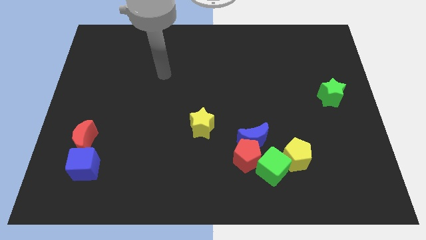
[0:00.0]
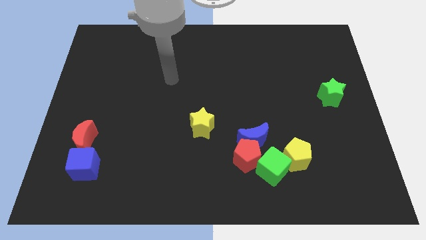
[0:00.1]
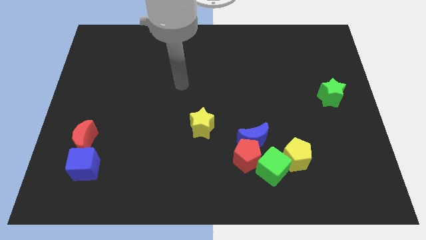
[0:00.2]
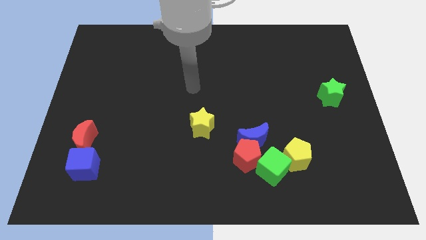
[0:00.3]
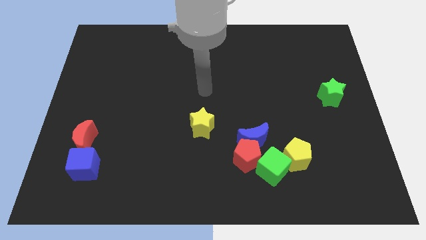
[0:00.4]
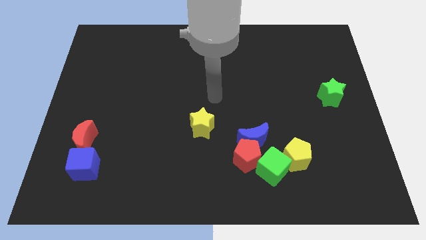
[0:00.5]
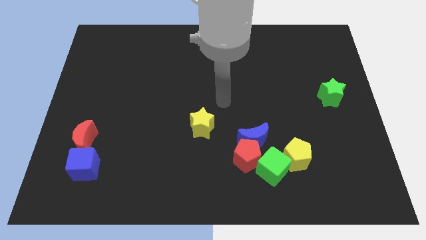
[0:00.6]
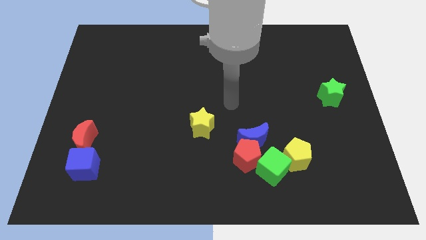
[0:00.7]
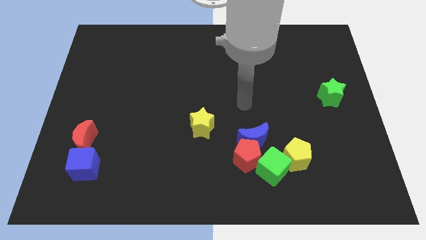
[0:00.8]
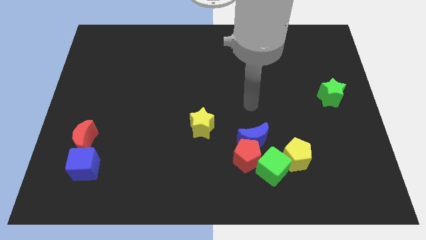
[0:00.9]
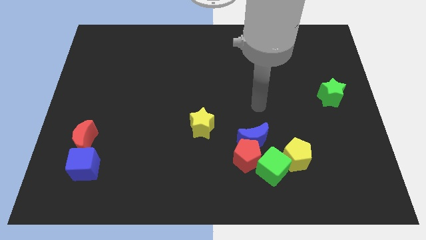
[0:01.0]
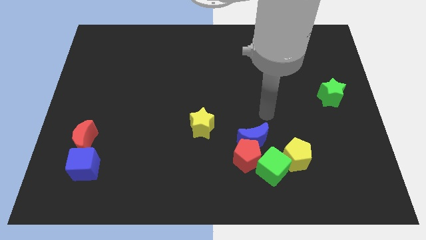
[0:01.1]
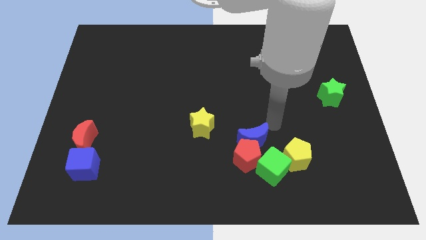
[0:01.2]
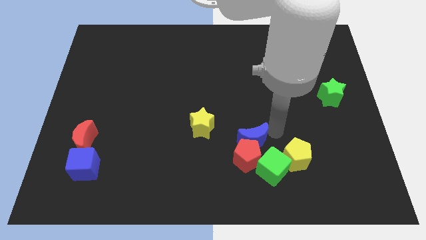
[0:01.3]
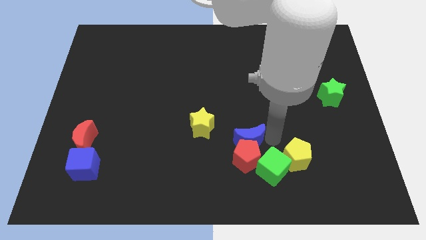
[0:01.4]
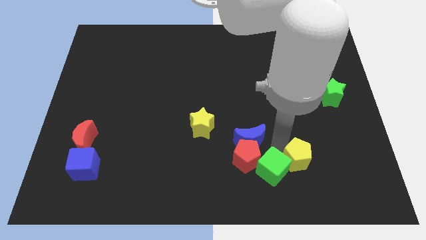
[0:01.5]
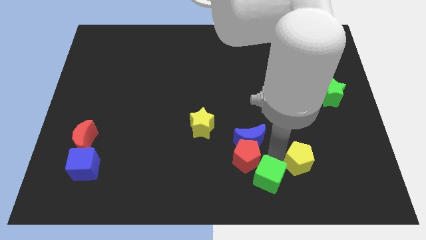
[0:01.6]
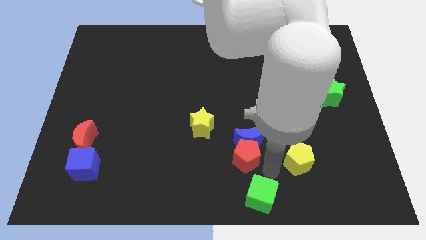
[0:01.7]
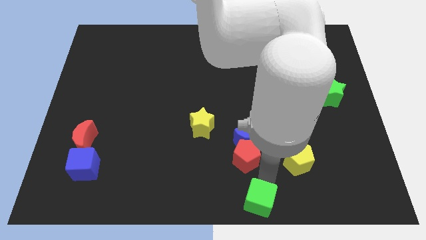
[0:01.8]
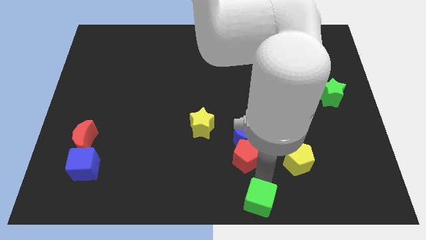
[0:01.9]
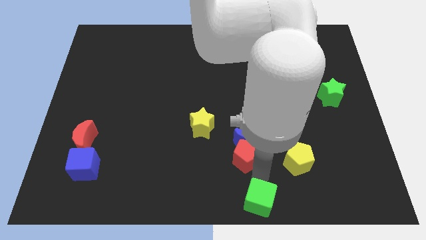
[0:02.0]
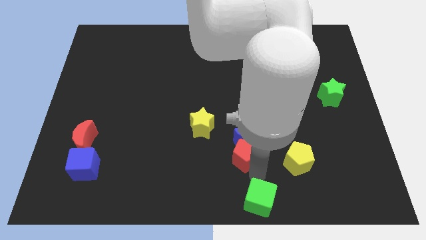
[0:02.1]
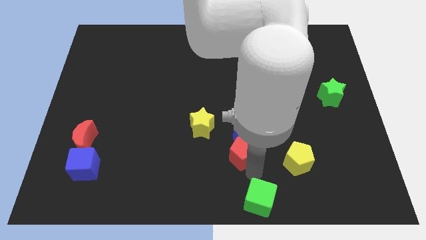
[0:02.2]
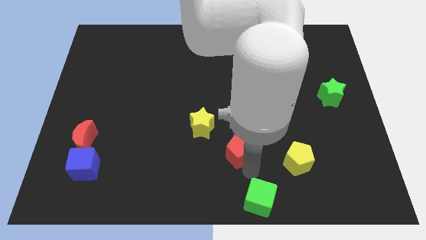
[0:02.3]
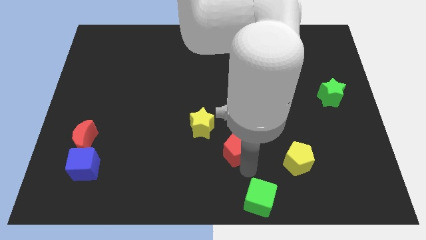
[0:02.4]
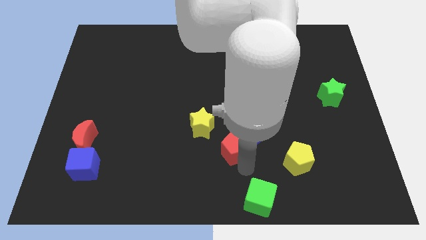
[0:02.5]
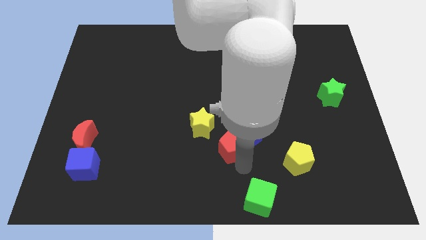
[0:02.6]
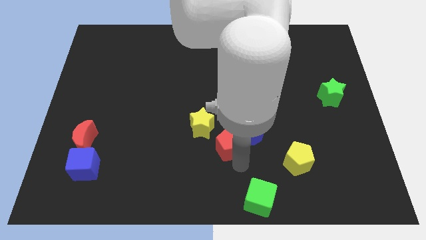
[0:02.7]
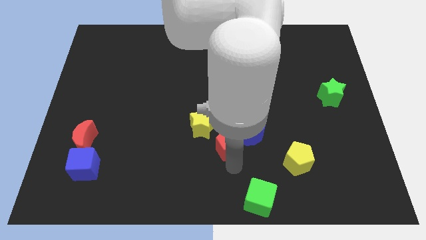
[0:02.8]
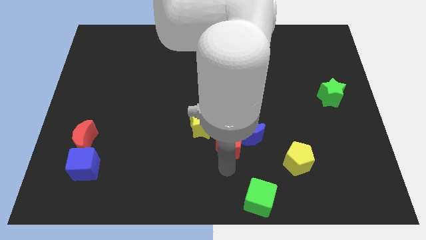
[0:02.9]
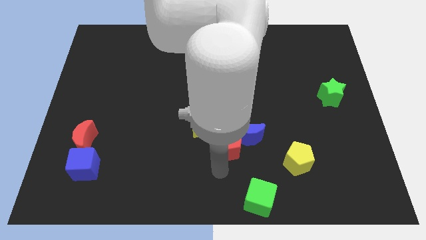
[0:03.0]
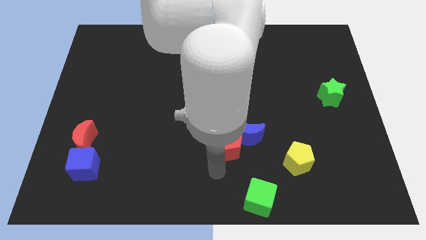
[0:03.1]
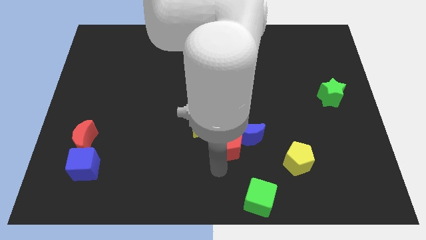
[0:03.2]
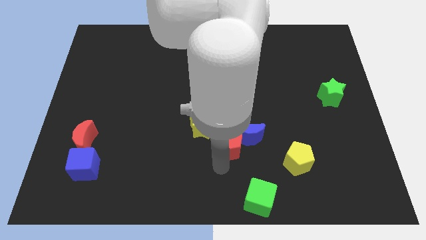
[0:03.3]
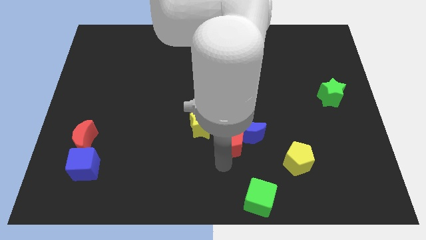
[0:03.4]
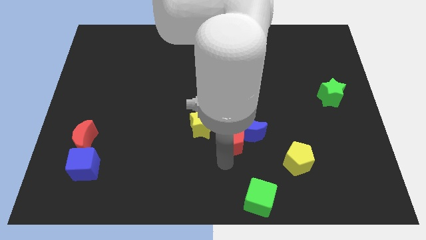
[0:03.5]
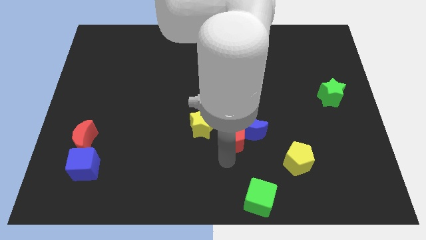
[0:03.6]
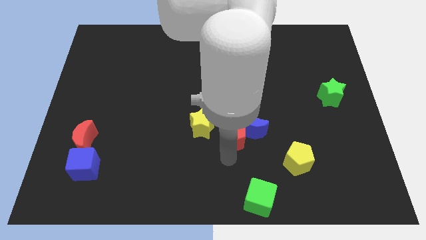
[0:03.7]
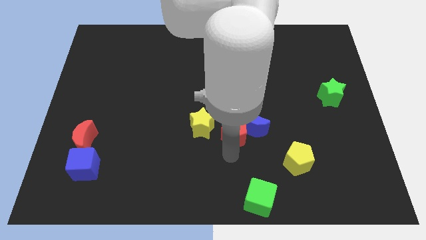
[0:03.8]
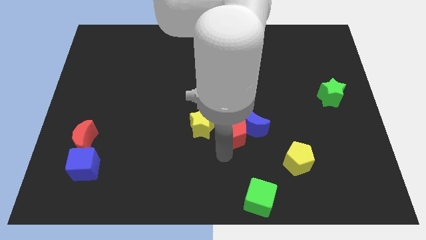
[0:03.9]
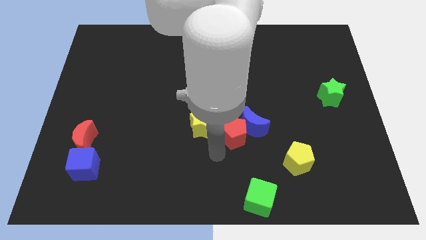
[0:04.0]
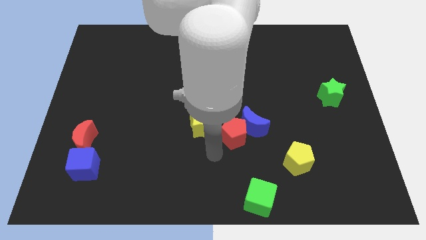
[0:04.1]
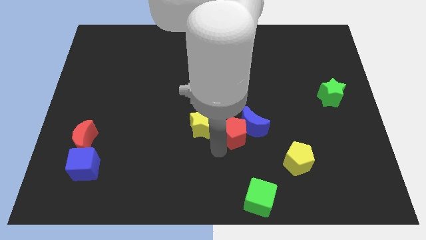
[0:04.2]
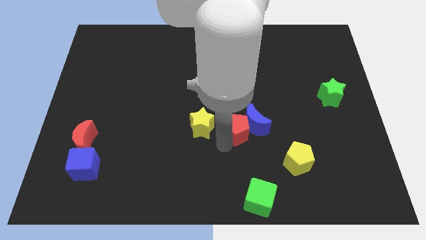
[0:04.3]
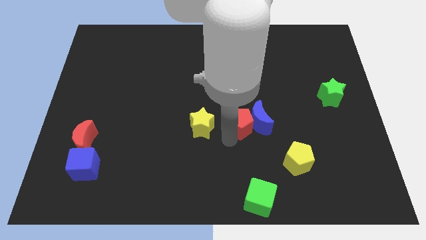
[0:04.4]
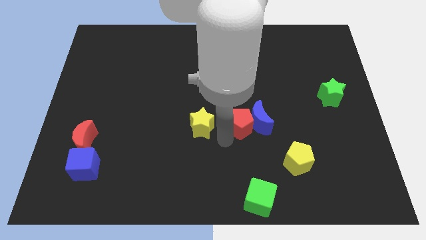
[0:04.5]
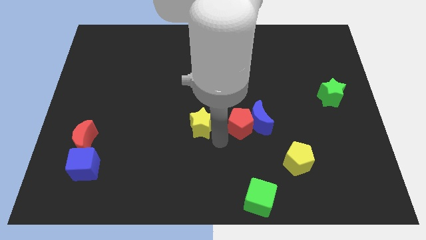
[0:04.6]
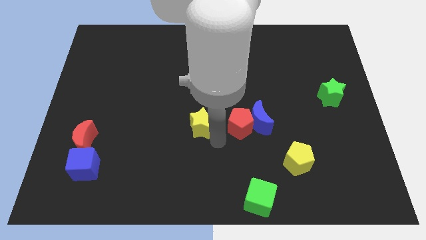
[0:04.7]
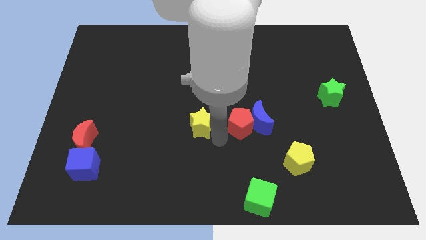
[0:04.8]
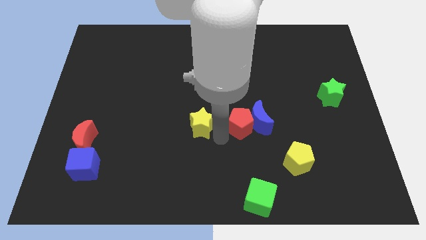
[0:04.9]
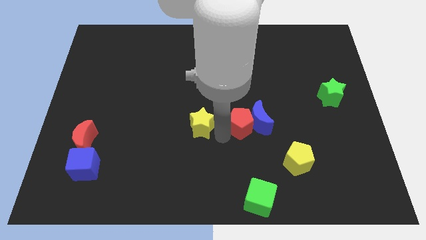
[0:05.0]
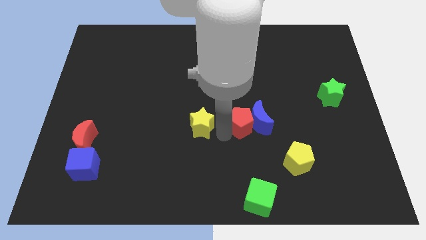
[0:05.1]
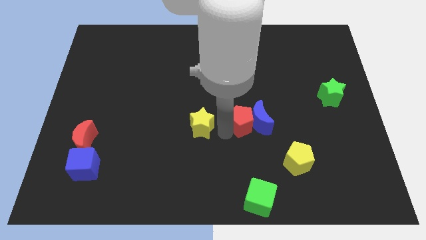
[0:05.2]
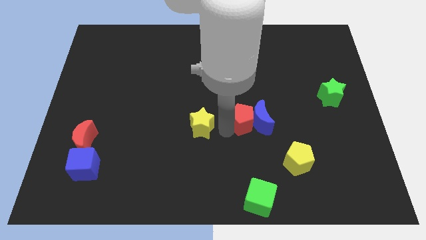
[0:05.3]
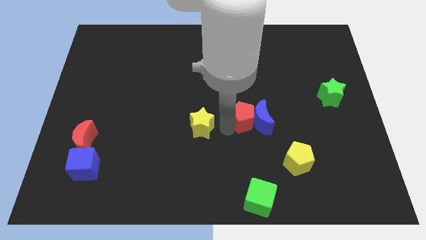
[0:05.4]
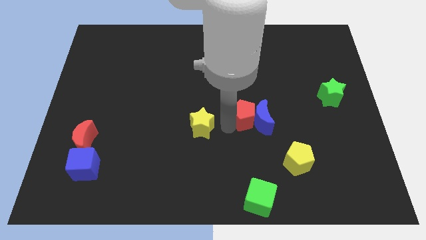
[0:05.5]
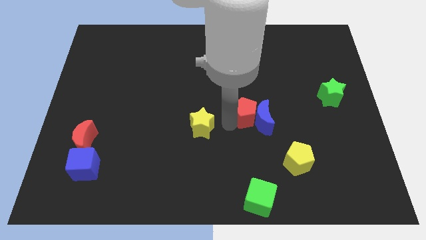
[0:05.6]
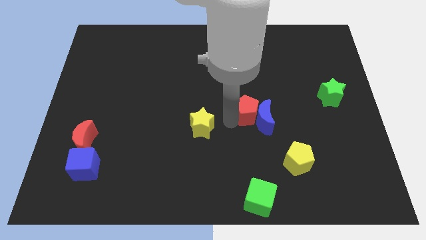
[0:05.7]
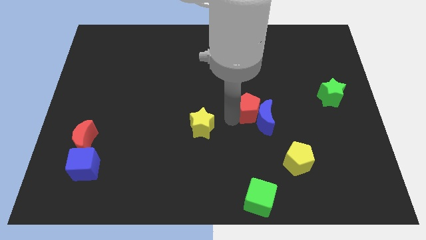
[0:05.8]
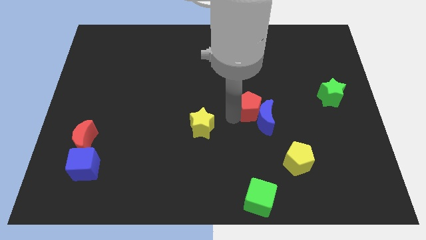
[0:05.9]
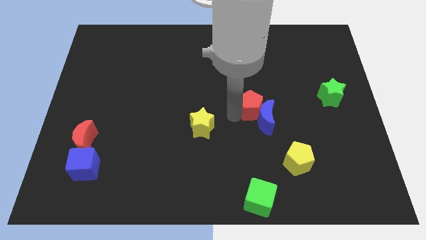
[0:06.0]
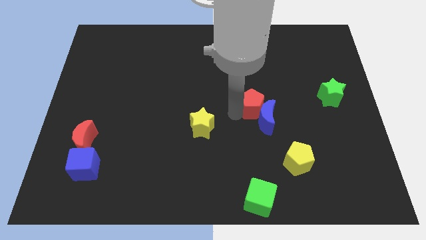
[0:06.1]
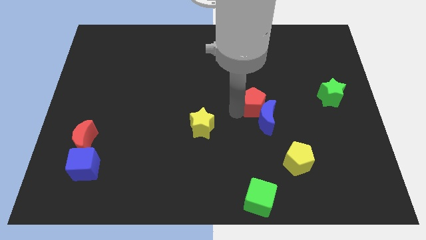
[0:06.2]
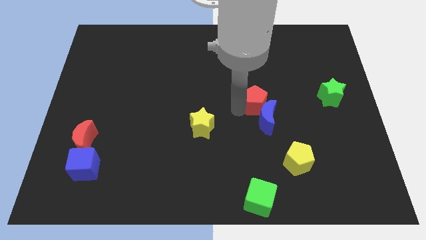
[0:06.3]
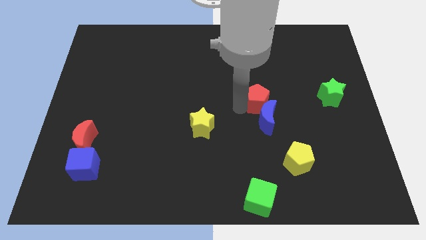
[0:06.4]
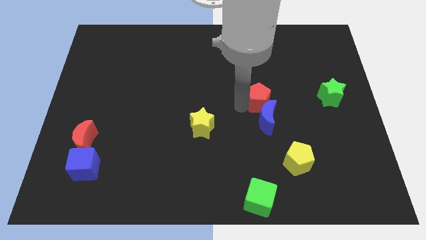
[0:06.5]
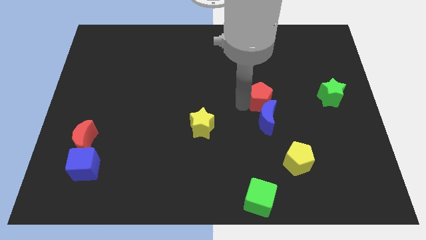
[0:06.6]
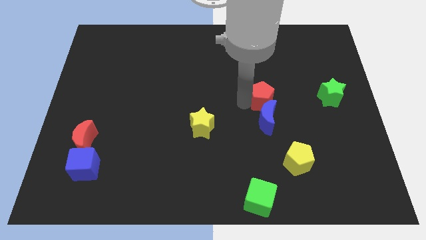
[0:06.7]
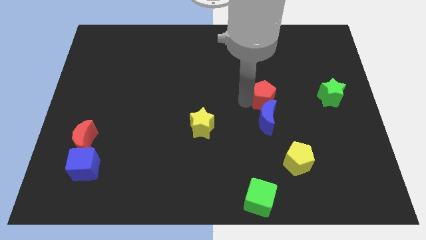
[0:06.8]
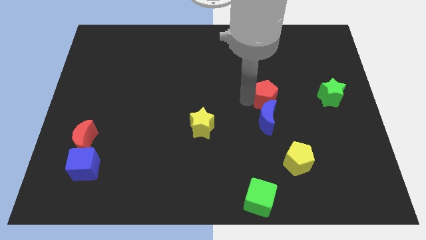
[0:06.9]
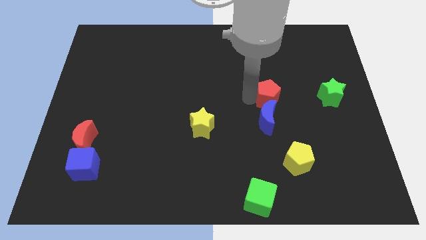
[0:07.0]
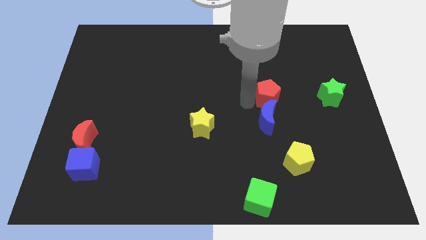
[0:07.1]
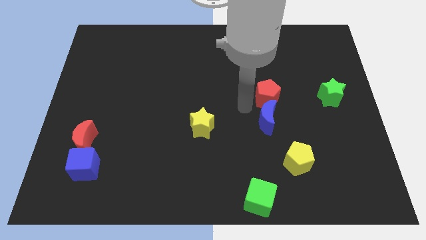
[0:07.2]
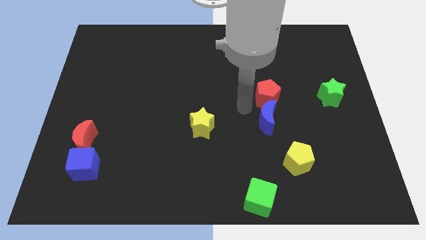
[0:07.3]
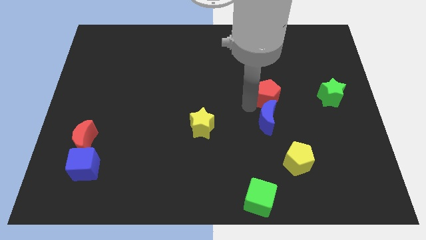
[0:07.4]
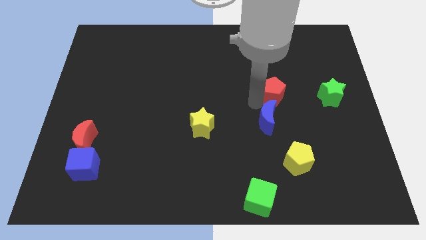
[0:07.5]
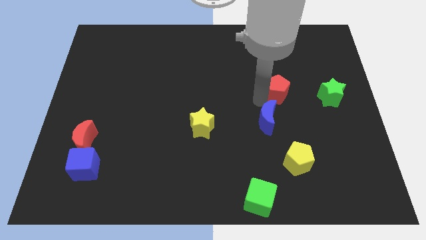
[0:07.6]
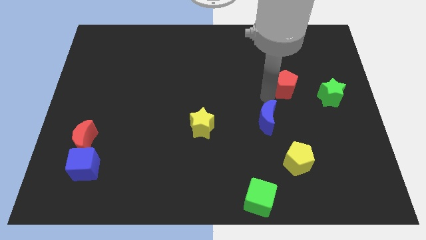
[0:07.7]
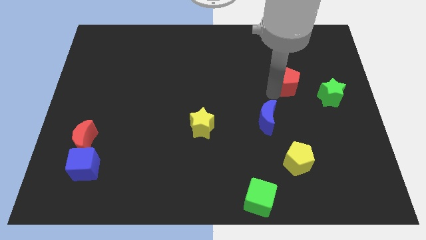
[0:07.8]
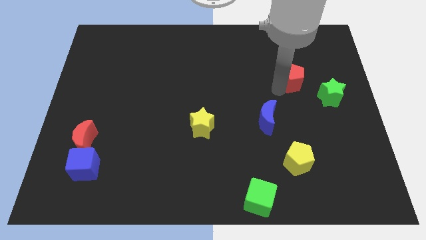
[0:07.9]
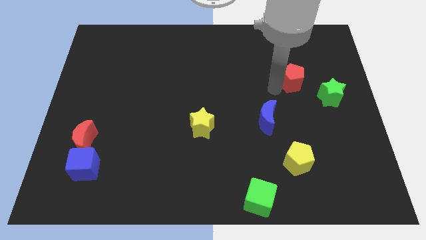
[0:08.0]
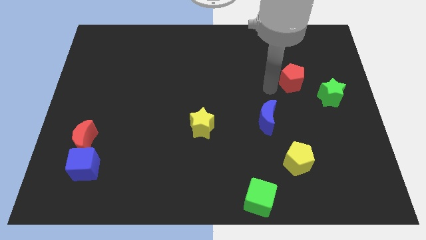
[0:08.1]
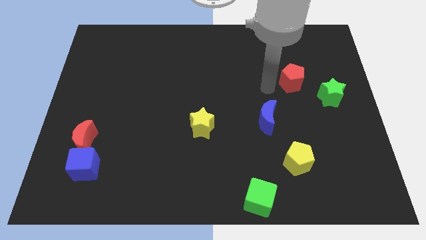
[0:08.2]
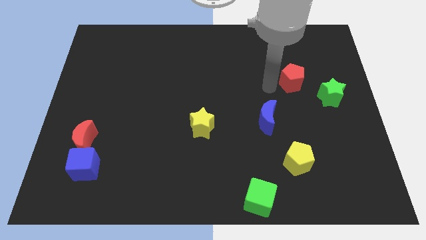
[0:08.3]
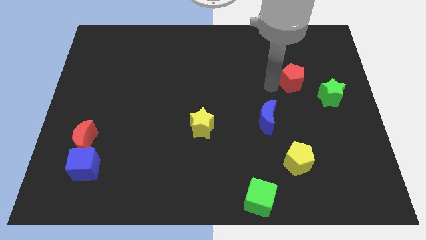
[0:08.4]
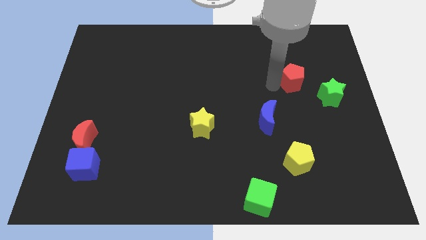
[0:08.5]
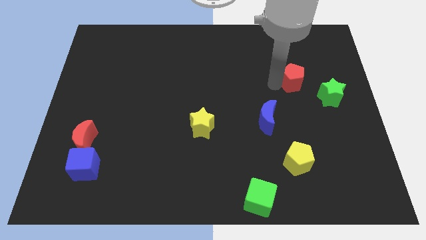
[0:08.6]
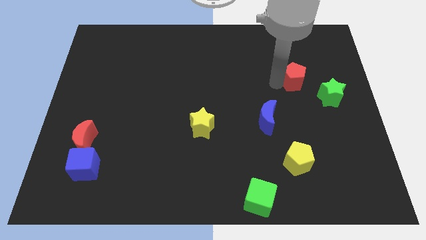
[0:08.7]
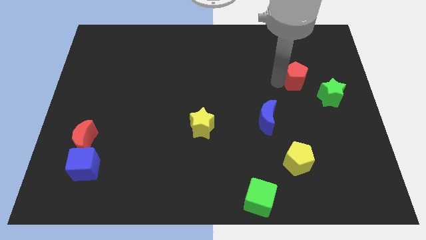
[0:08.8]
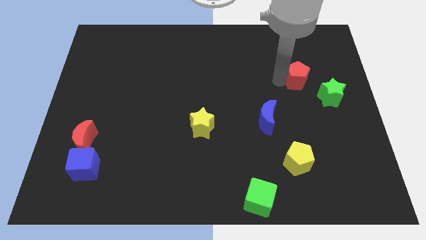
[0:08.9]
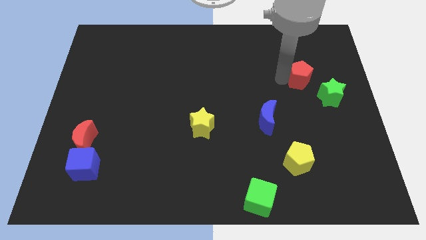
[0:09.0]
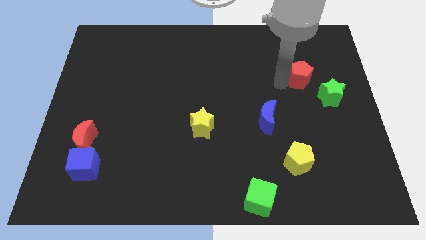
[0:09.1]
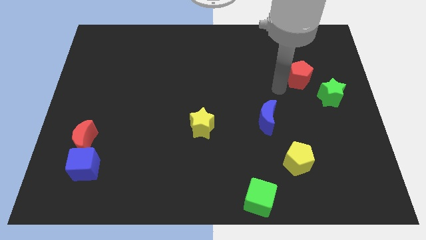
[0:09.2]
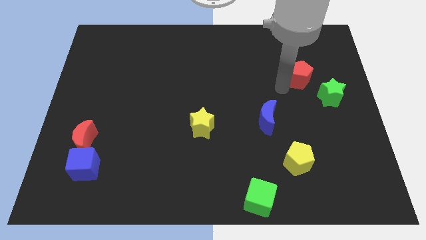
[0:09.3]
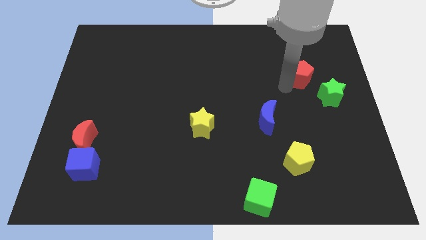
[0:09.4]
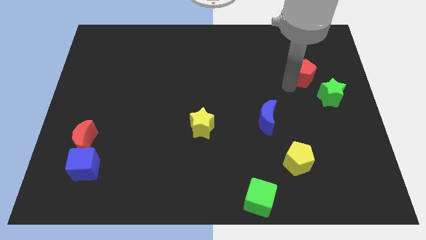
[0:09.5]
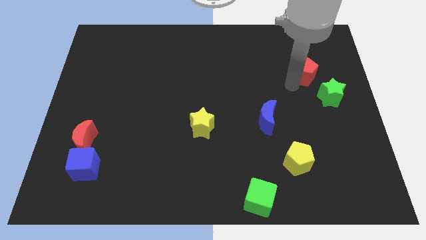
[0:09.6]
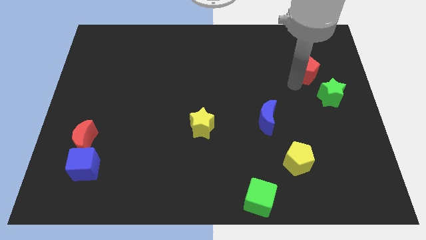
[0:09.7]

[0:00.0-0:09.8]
slide the red pentagon above the green star
